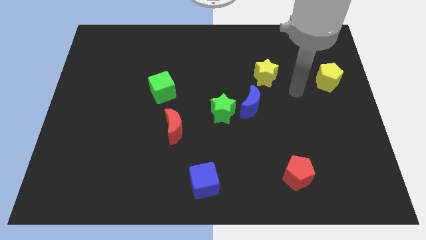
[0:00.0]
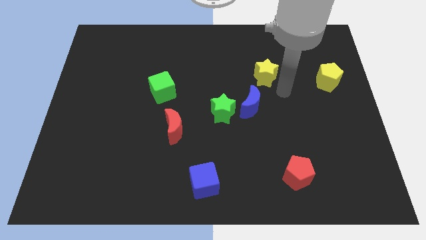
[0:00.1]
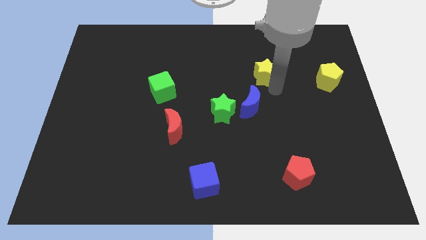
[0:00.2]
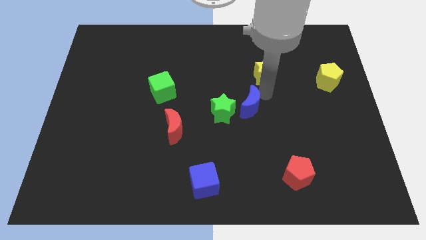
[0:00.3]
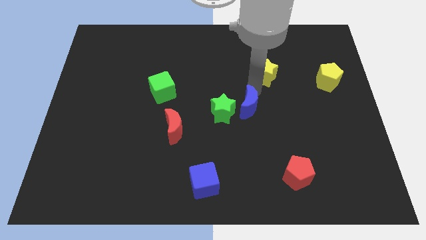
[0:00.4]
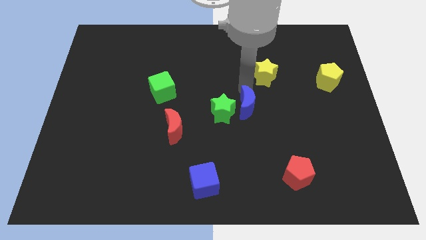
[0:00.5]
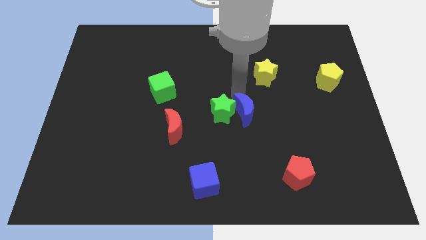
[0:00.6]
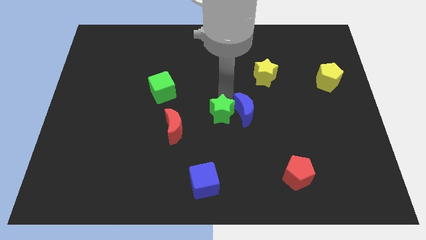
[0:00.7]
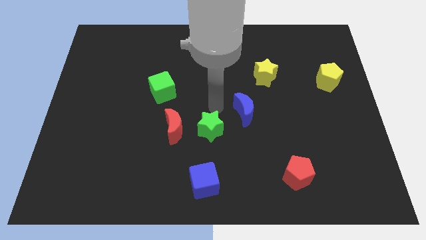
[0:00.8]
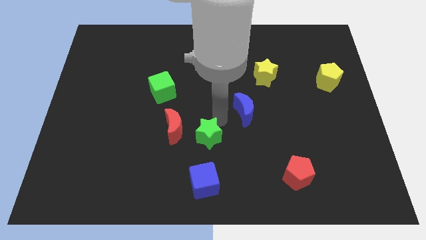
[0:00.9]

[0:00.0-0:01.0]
separate the blue moon from the green star

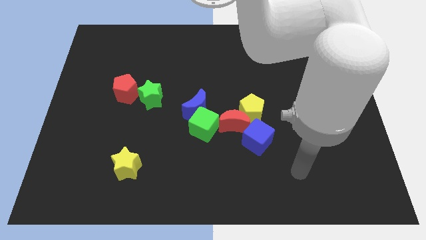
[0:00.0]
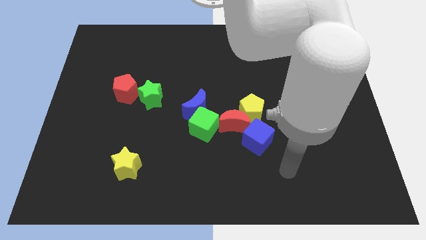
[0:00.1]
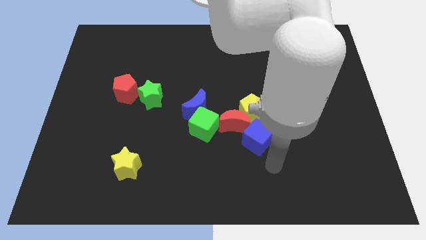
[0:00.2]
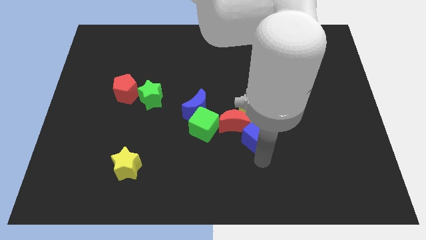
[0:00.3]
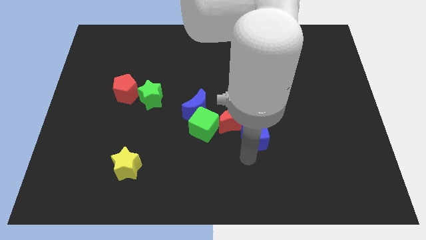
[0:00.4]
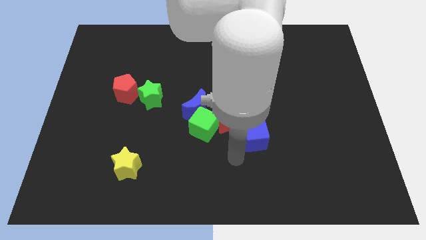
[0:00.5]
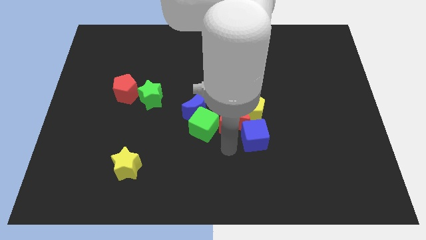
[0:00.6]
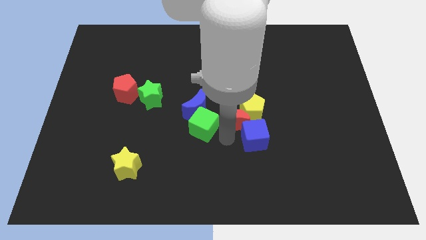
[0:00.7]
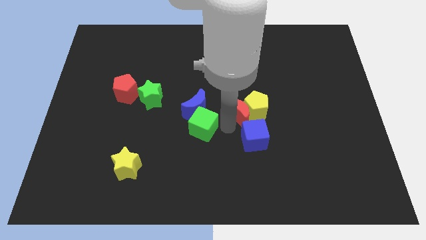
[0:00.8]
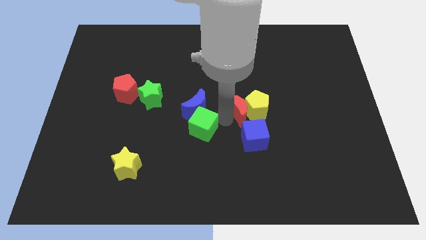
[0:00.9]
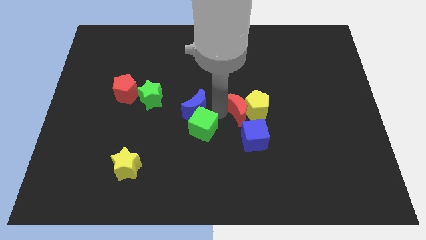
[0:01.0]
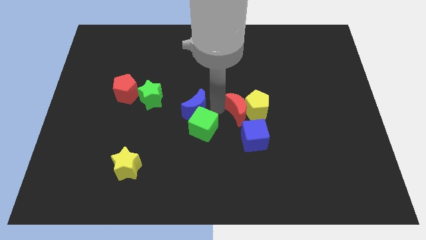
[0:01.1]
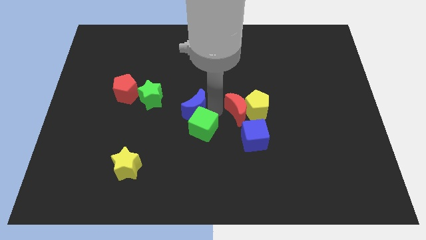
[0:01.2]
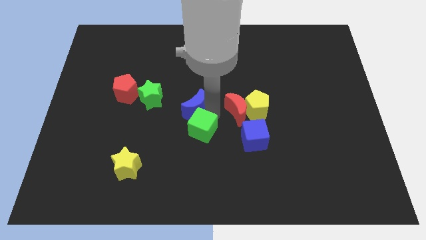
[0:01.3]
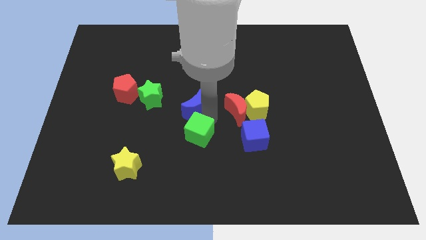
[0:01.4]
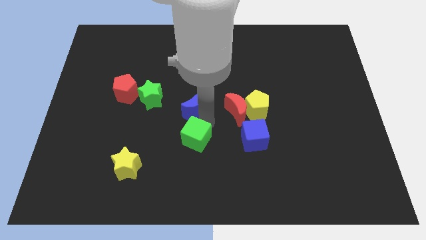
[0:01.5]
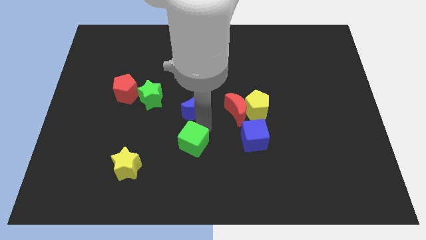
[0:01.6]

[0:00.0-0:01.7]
pull the green cube apart from the blue moon and red moon

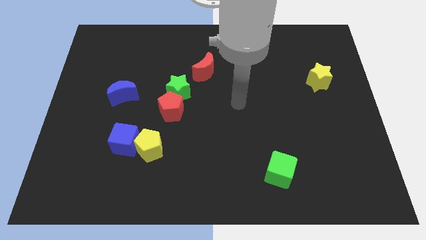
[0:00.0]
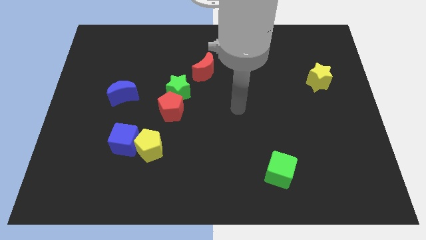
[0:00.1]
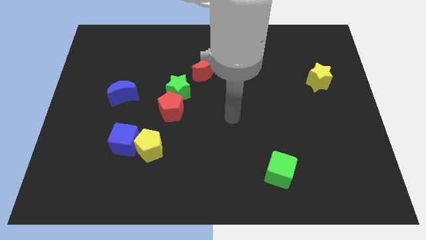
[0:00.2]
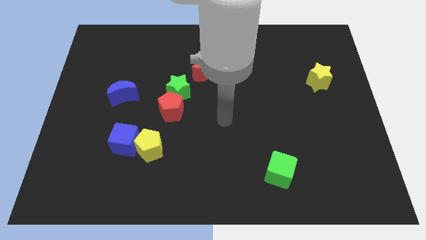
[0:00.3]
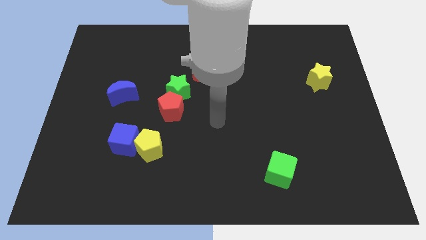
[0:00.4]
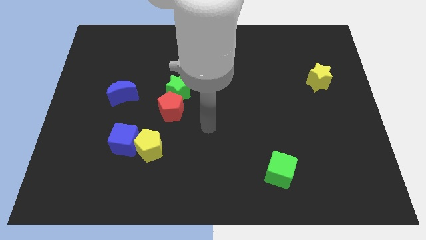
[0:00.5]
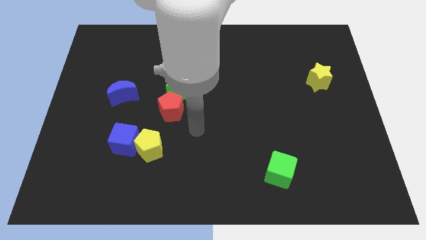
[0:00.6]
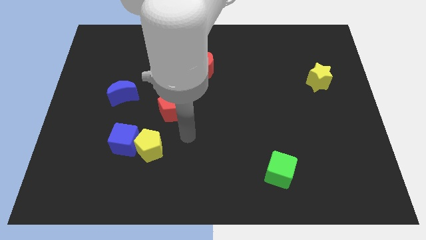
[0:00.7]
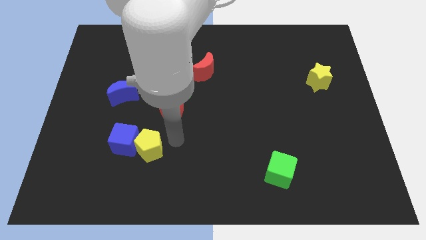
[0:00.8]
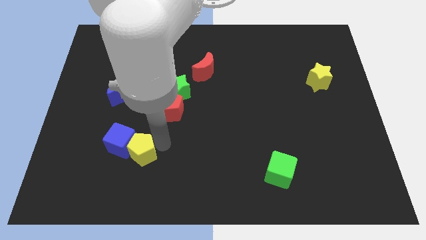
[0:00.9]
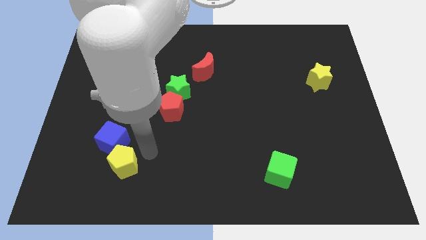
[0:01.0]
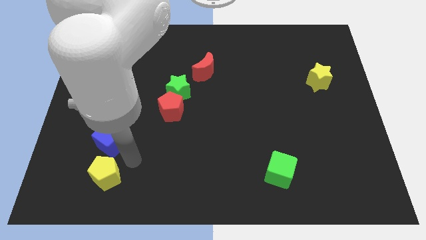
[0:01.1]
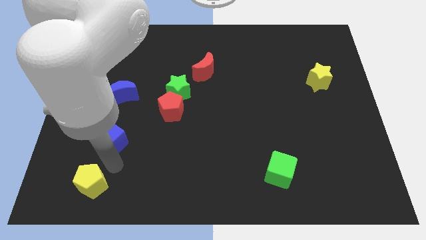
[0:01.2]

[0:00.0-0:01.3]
move the blue cube away from the yellow pentagon

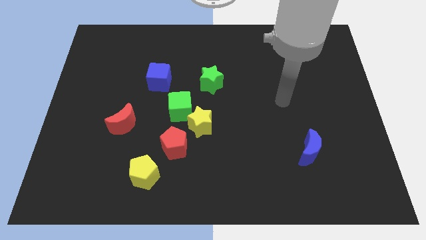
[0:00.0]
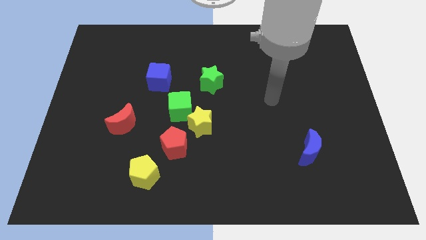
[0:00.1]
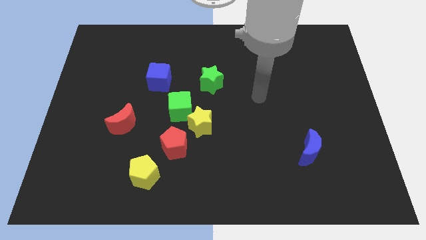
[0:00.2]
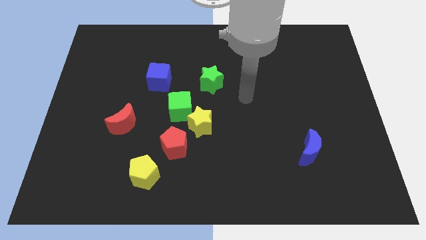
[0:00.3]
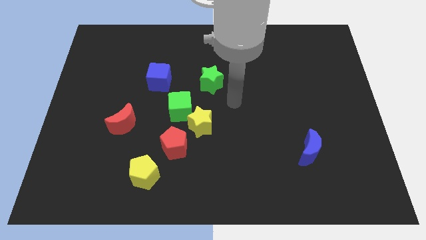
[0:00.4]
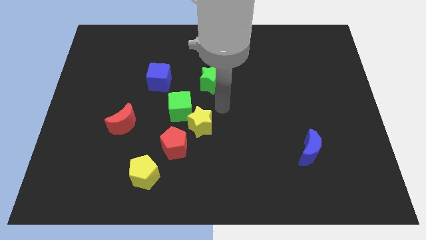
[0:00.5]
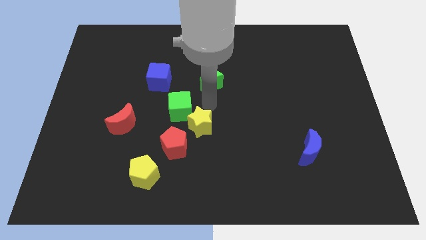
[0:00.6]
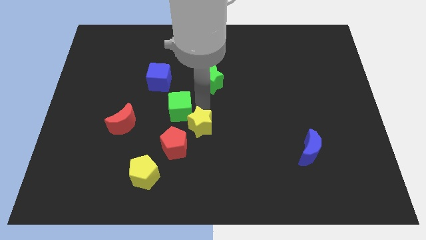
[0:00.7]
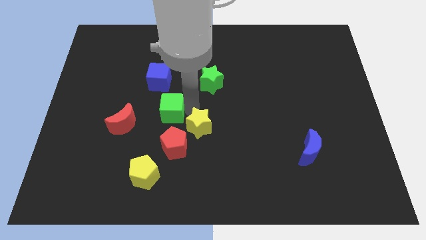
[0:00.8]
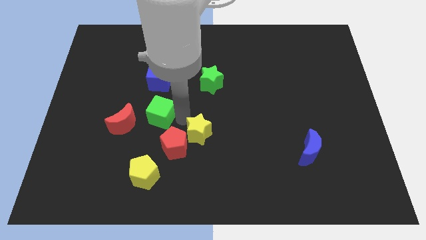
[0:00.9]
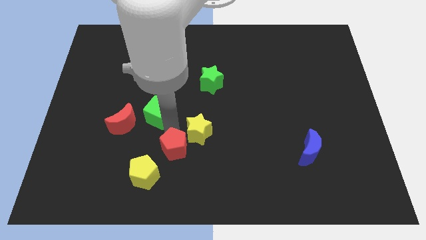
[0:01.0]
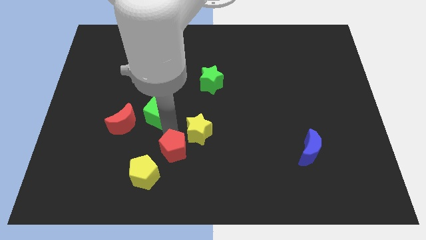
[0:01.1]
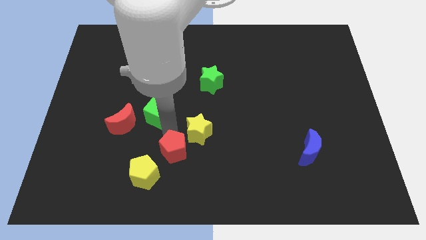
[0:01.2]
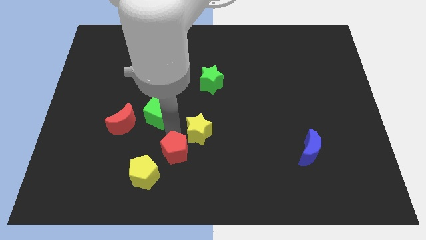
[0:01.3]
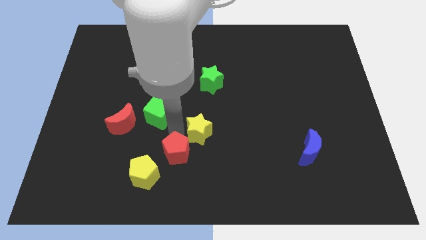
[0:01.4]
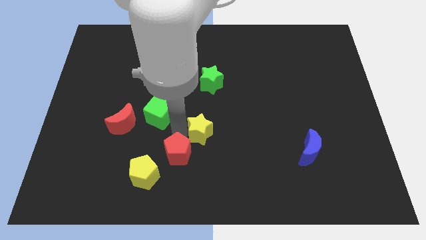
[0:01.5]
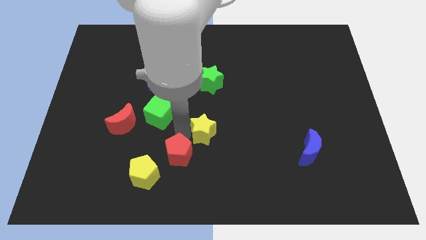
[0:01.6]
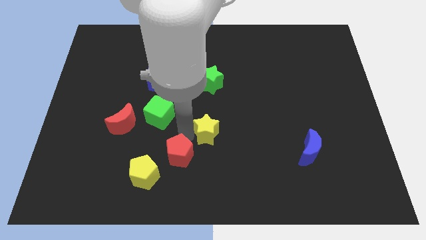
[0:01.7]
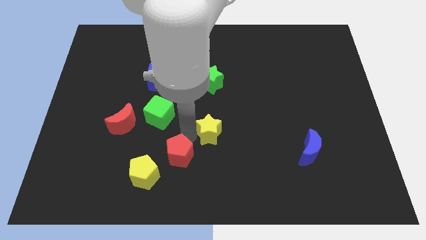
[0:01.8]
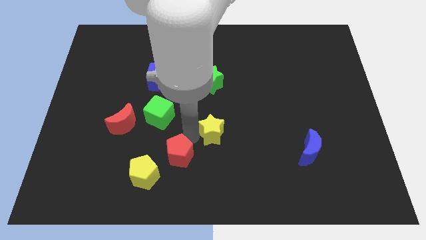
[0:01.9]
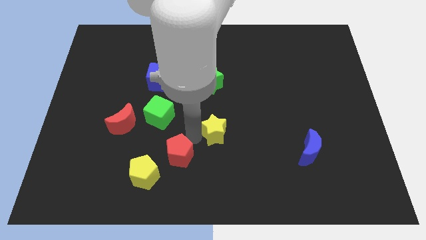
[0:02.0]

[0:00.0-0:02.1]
pull the yellow star apart from the green cube and red pentagon

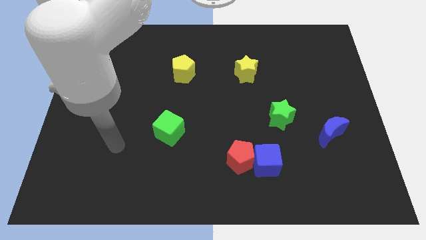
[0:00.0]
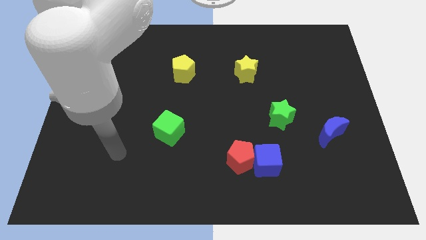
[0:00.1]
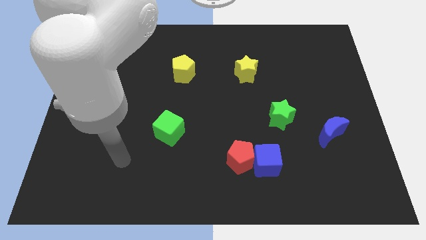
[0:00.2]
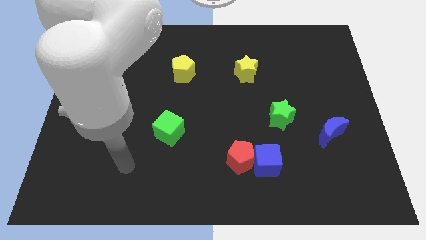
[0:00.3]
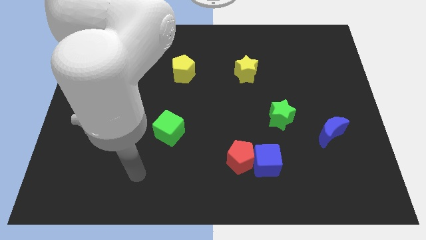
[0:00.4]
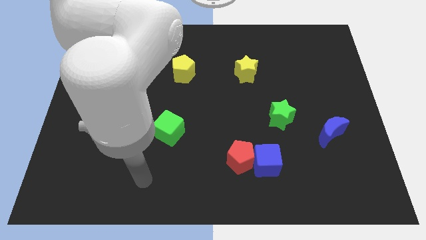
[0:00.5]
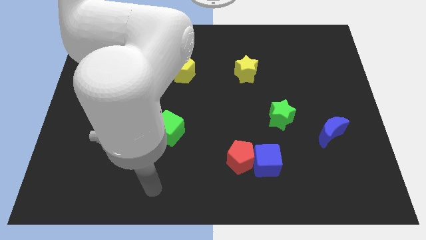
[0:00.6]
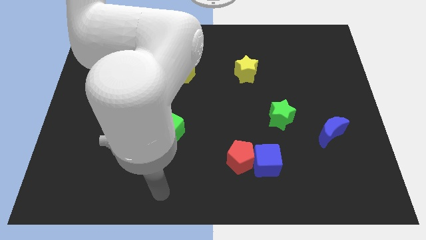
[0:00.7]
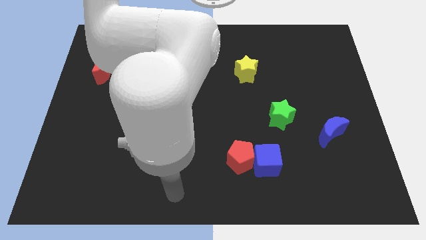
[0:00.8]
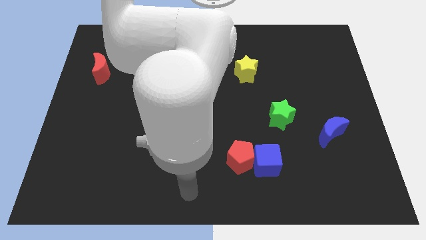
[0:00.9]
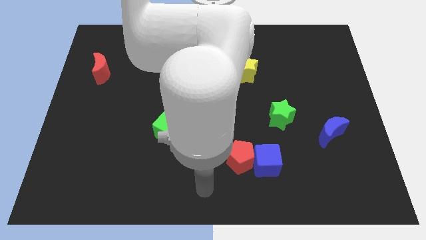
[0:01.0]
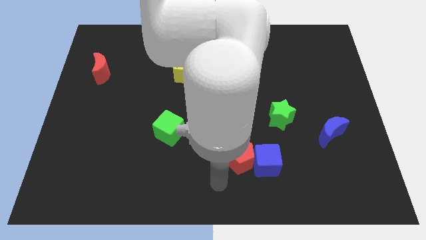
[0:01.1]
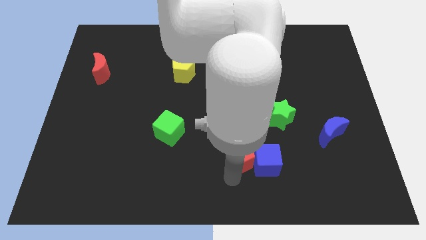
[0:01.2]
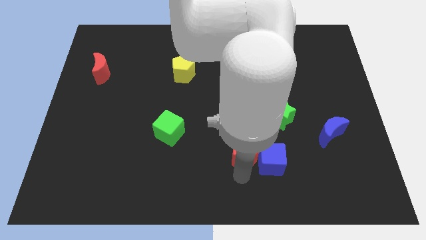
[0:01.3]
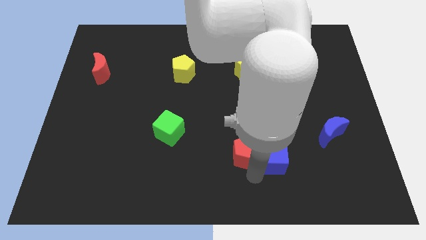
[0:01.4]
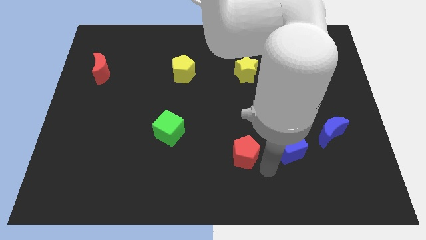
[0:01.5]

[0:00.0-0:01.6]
move the red pentagon away from the blue cube

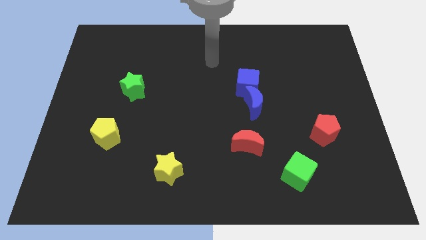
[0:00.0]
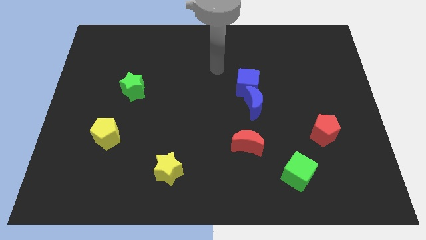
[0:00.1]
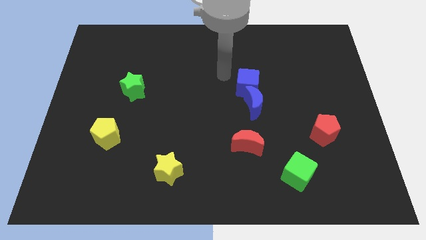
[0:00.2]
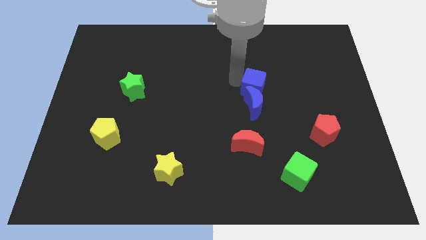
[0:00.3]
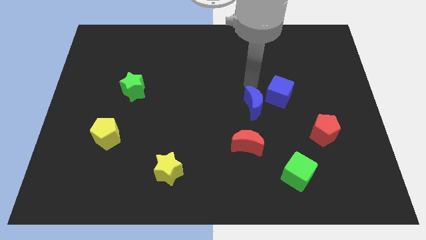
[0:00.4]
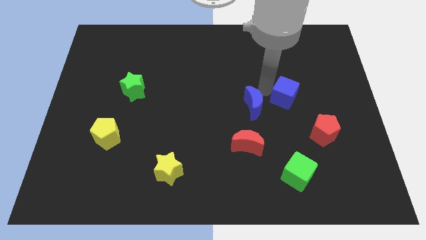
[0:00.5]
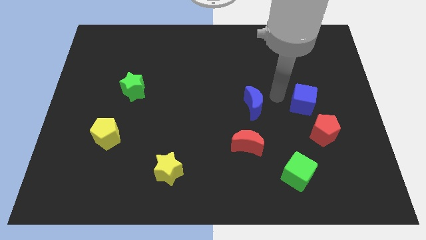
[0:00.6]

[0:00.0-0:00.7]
separate the blue moon from the blue cube

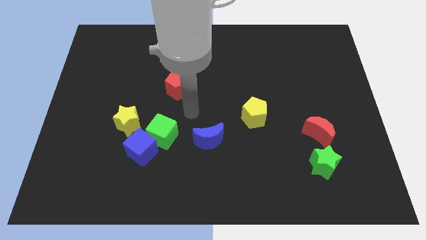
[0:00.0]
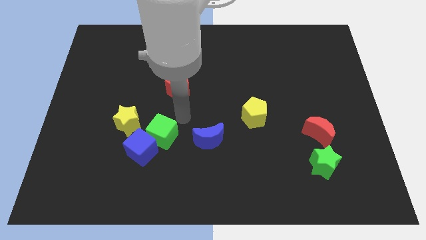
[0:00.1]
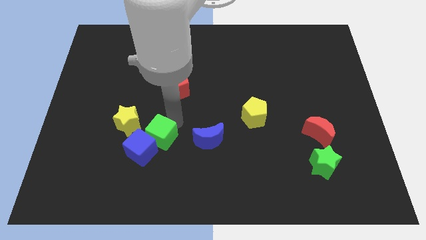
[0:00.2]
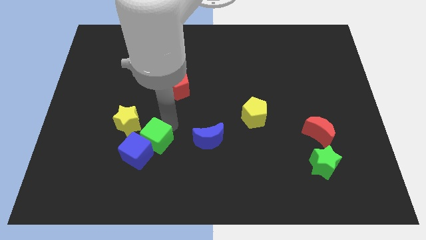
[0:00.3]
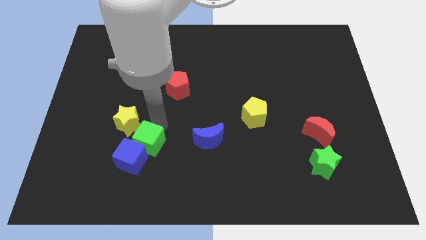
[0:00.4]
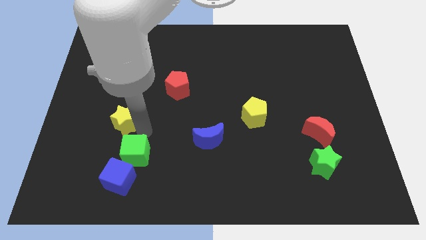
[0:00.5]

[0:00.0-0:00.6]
separate the blue cube from the green cube and yellow star

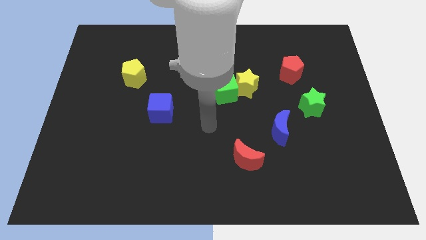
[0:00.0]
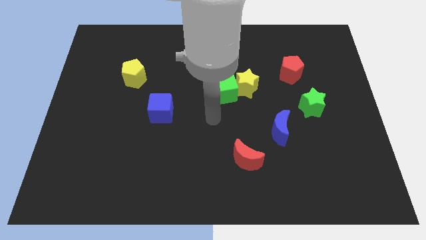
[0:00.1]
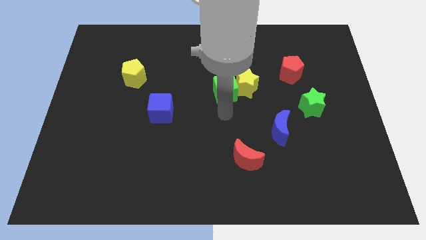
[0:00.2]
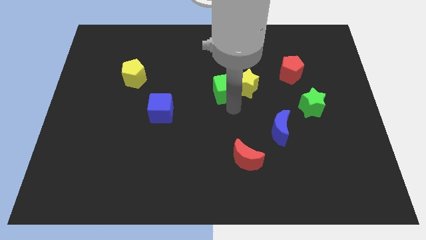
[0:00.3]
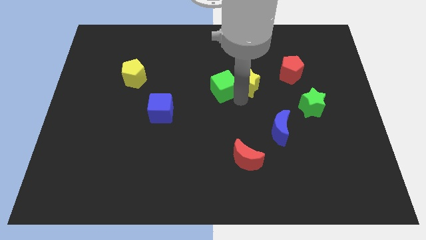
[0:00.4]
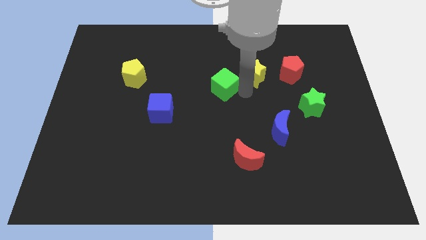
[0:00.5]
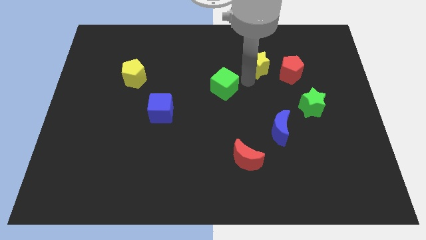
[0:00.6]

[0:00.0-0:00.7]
pull the green cube apart from the yellow star
